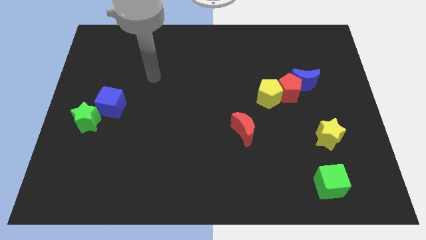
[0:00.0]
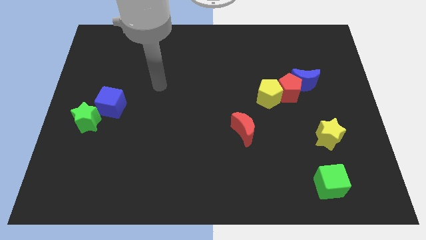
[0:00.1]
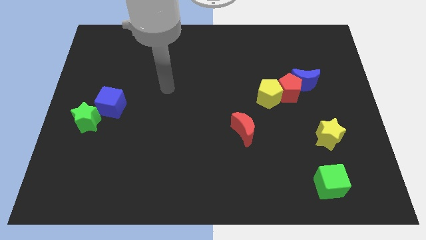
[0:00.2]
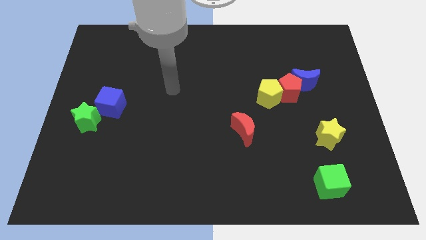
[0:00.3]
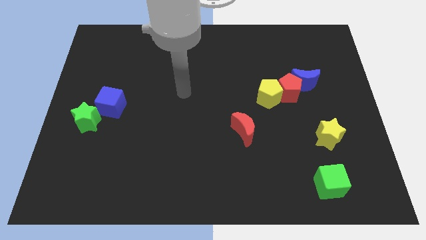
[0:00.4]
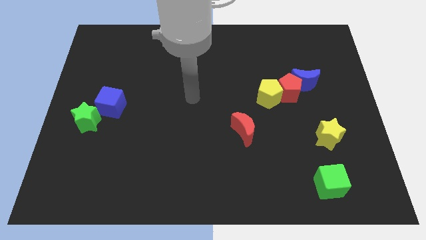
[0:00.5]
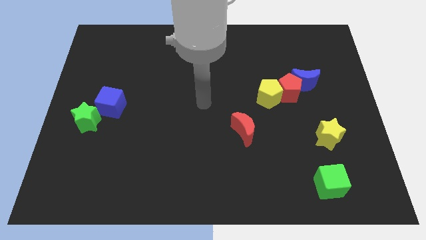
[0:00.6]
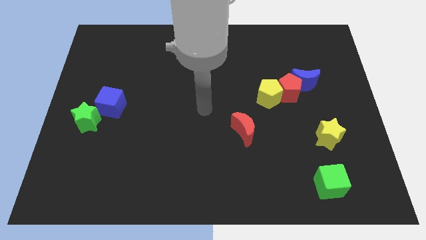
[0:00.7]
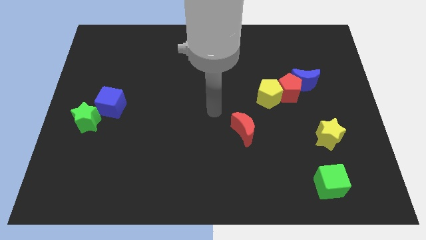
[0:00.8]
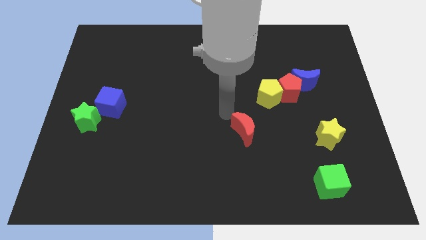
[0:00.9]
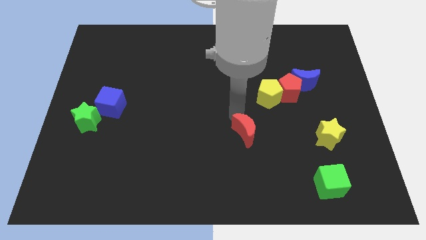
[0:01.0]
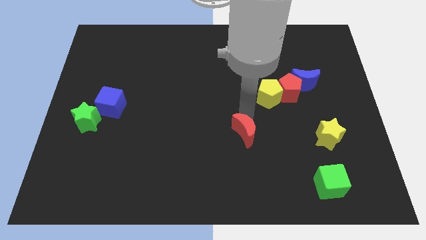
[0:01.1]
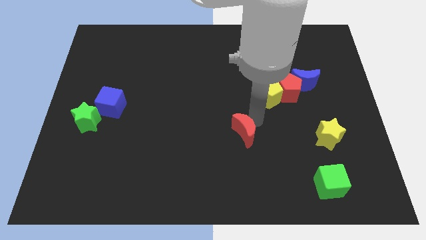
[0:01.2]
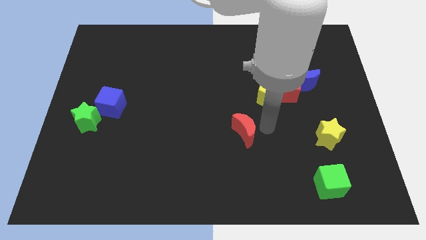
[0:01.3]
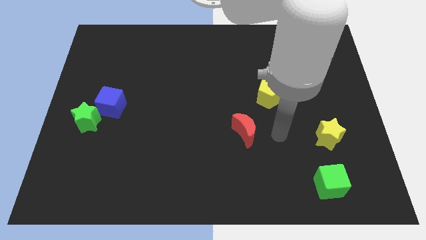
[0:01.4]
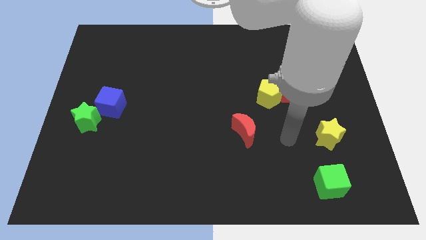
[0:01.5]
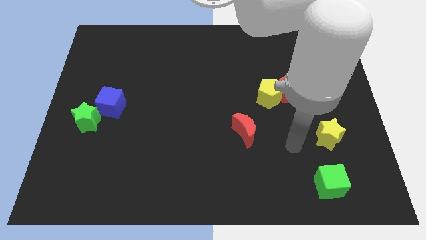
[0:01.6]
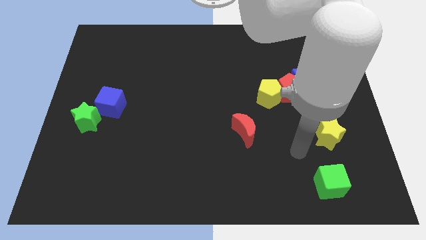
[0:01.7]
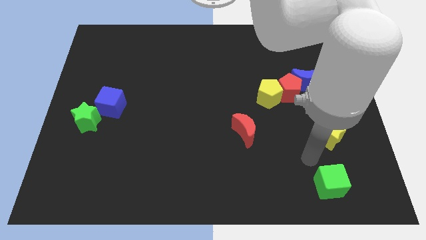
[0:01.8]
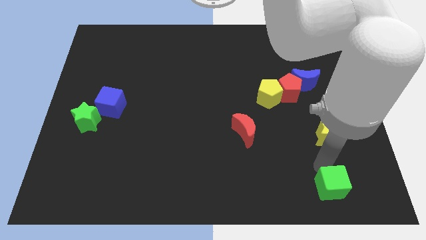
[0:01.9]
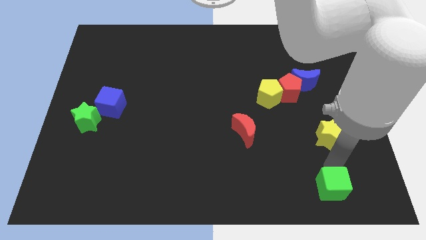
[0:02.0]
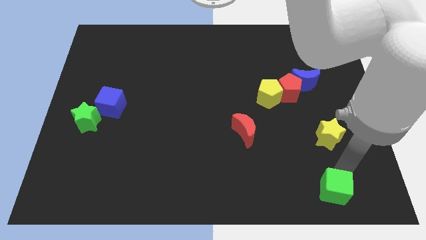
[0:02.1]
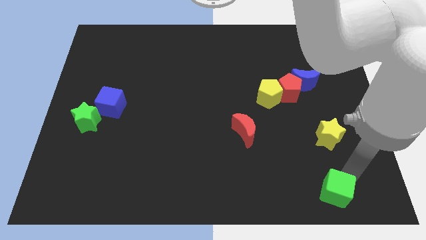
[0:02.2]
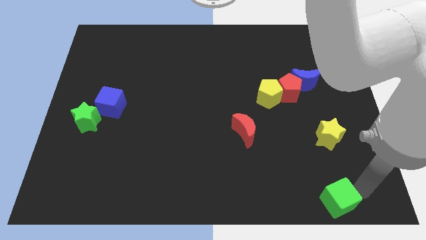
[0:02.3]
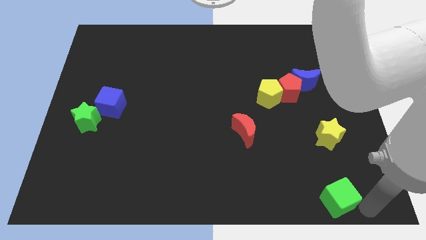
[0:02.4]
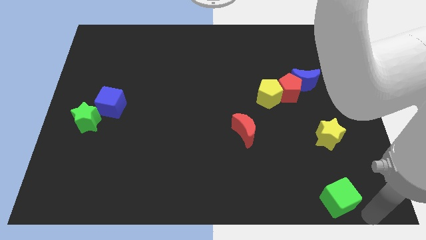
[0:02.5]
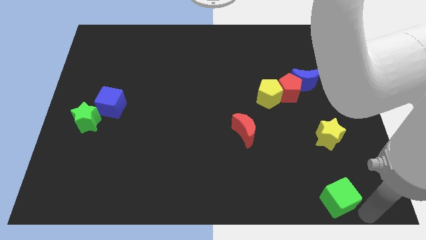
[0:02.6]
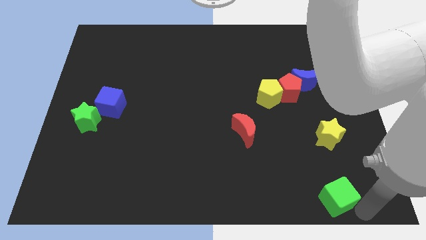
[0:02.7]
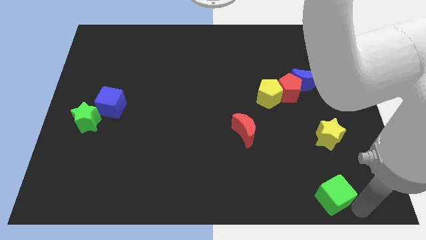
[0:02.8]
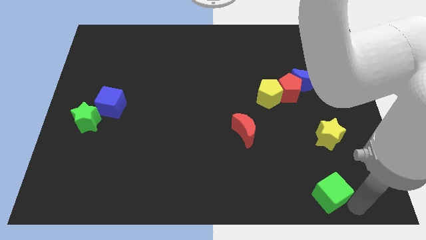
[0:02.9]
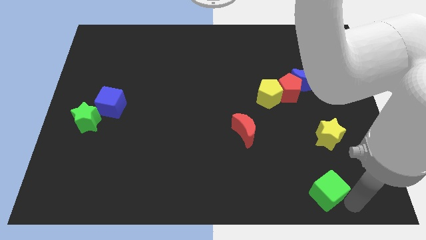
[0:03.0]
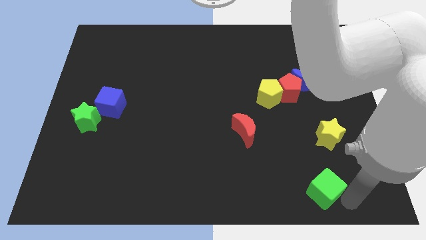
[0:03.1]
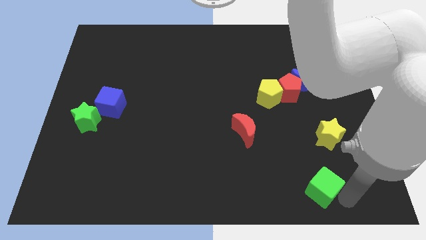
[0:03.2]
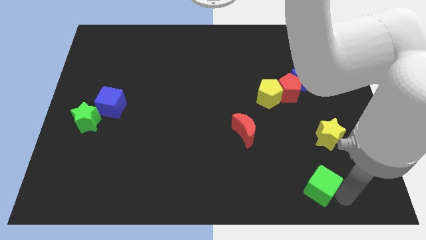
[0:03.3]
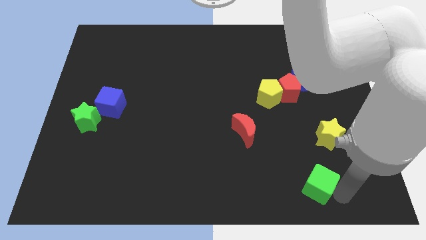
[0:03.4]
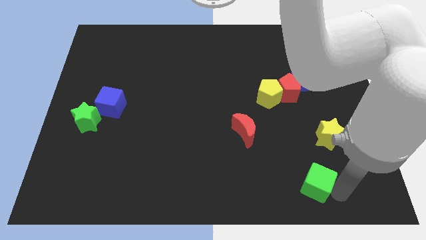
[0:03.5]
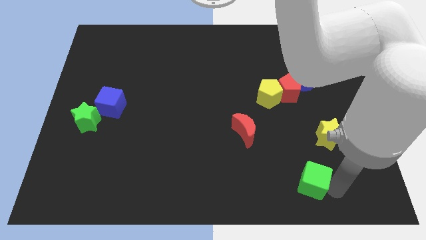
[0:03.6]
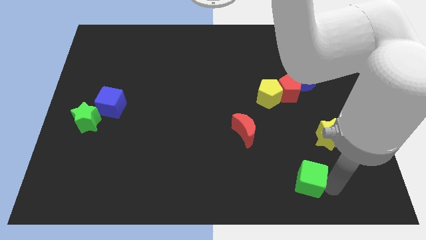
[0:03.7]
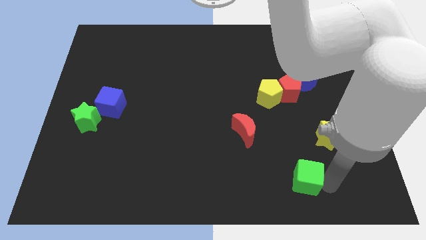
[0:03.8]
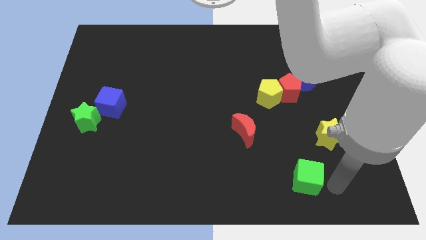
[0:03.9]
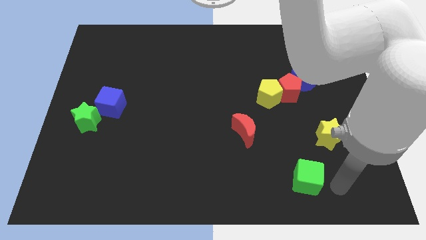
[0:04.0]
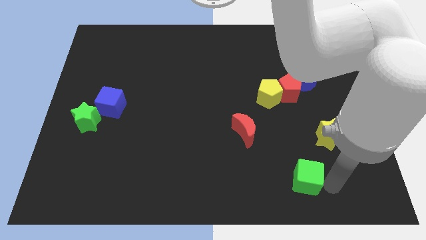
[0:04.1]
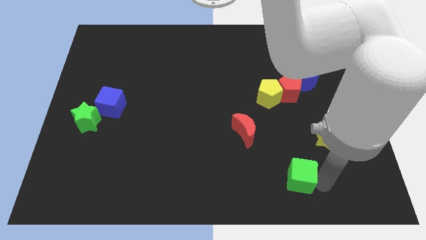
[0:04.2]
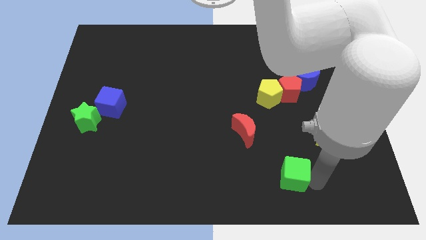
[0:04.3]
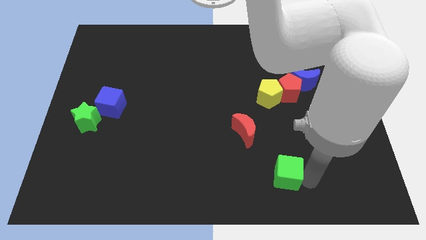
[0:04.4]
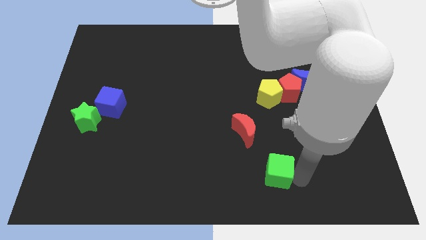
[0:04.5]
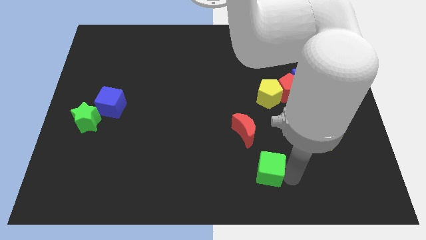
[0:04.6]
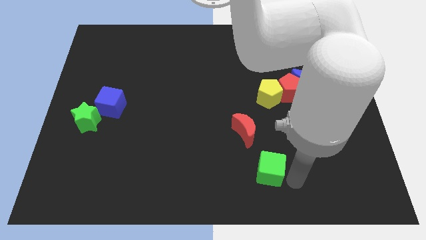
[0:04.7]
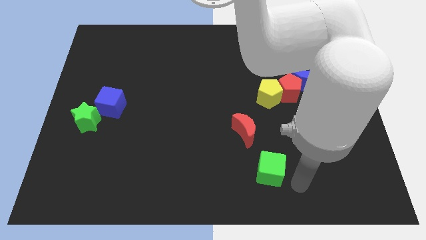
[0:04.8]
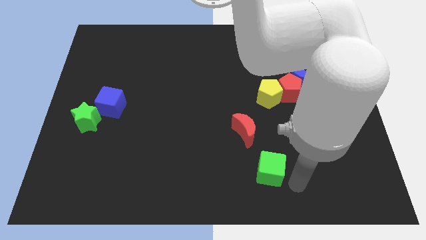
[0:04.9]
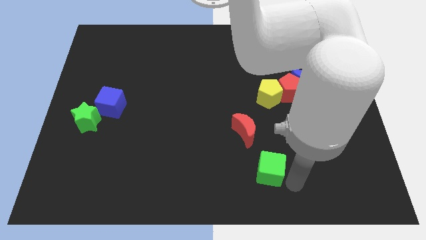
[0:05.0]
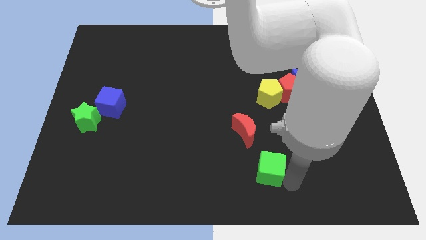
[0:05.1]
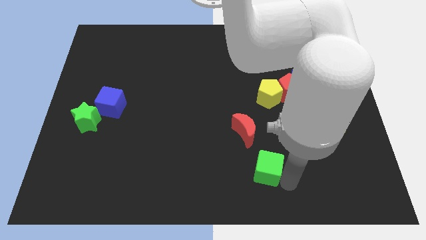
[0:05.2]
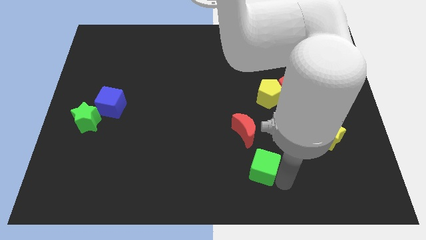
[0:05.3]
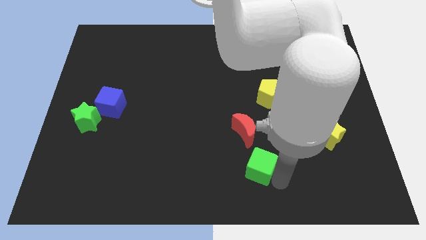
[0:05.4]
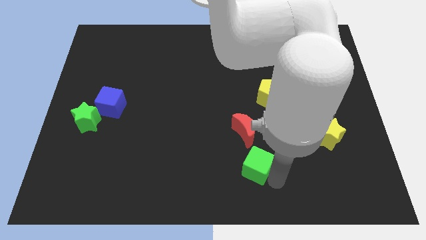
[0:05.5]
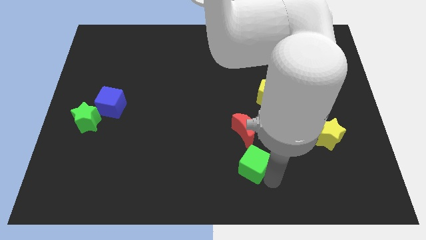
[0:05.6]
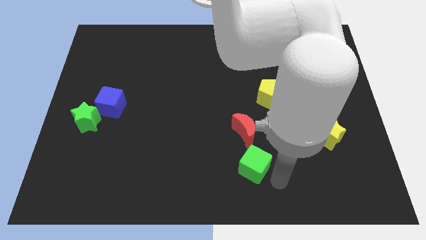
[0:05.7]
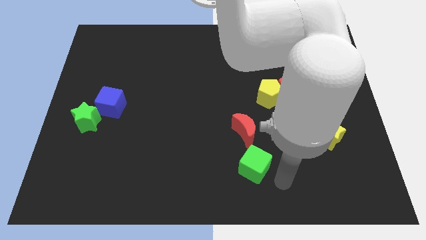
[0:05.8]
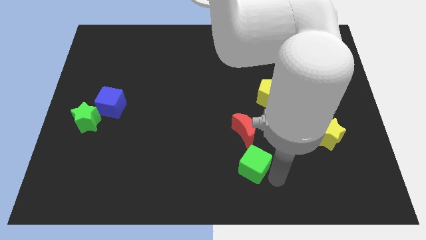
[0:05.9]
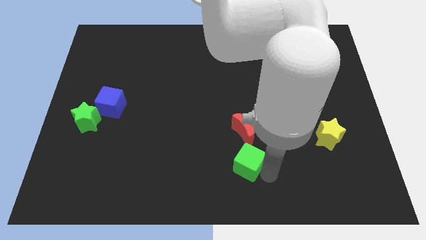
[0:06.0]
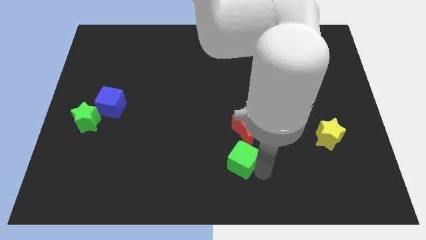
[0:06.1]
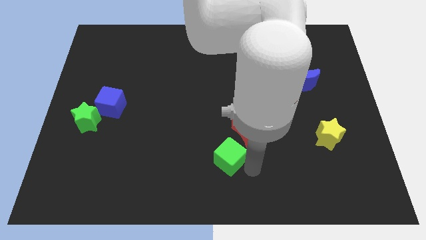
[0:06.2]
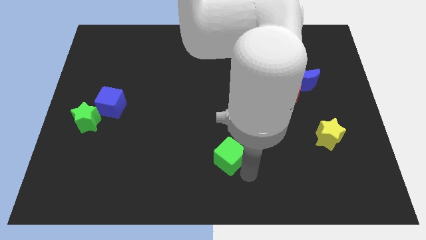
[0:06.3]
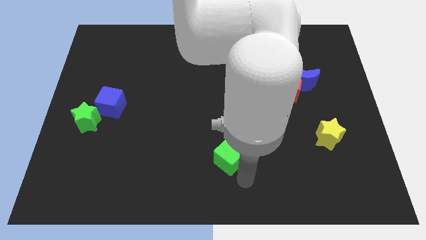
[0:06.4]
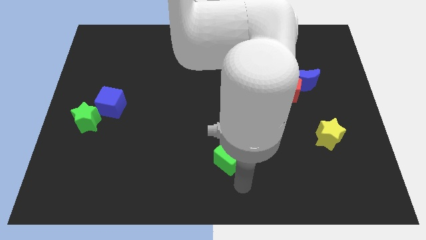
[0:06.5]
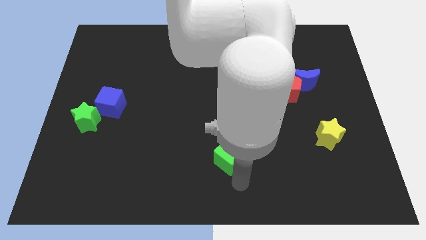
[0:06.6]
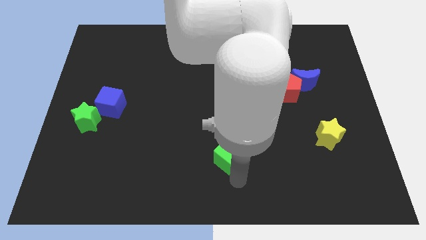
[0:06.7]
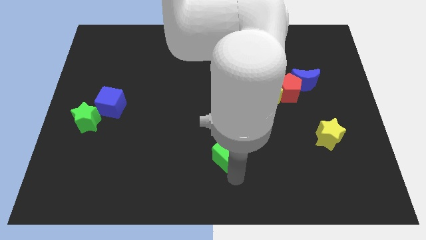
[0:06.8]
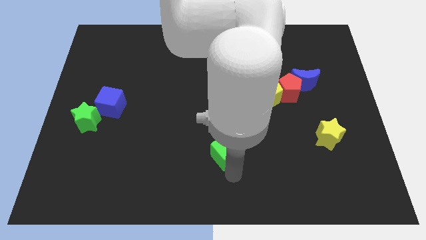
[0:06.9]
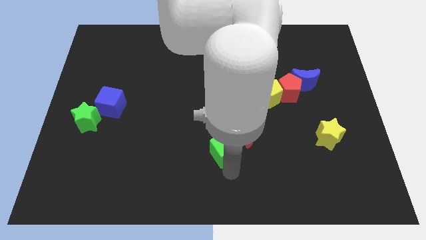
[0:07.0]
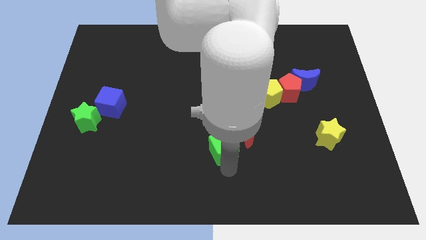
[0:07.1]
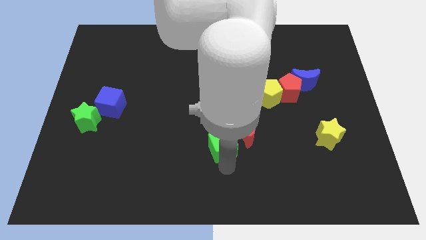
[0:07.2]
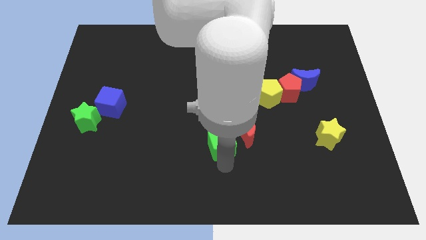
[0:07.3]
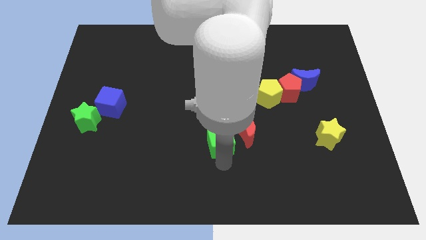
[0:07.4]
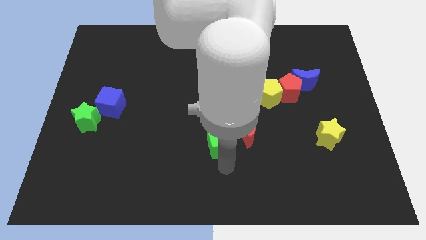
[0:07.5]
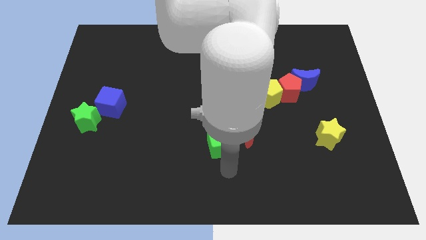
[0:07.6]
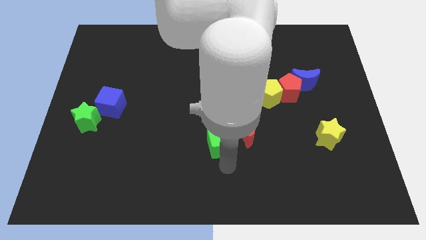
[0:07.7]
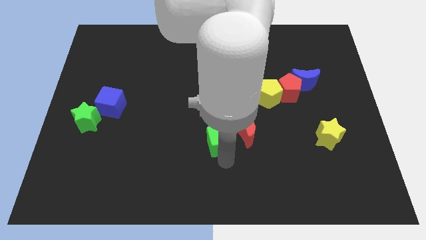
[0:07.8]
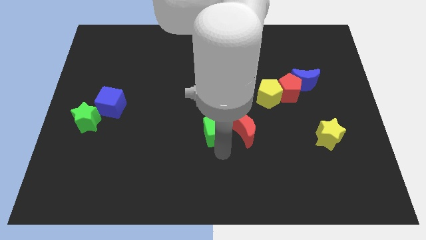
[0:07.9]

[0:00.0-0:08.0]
move the green cube upwards and then left
